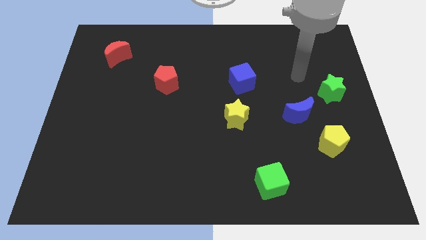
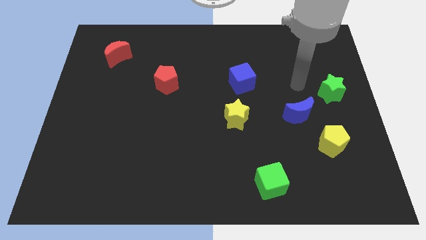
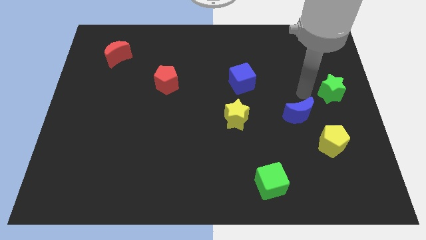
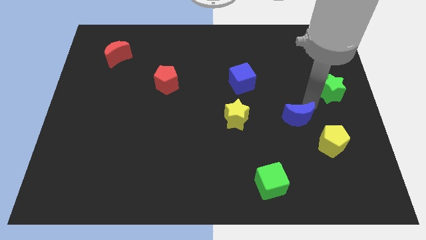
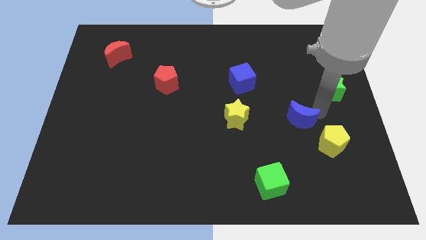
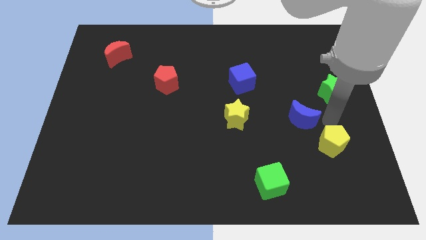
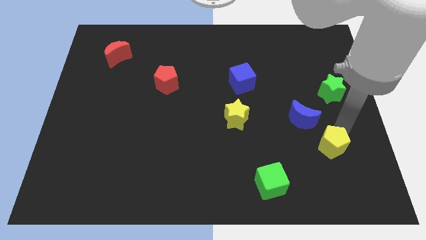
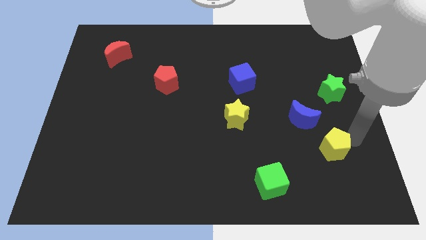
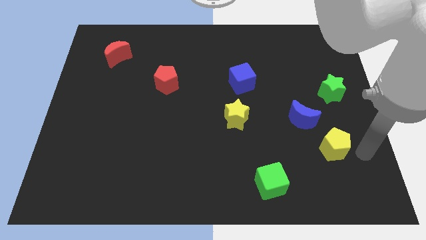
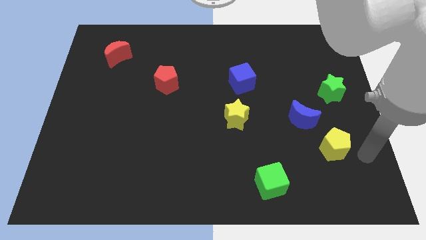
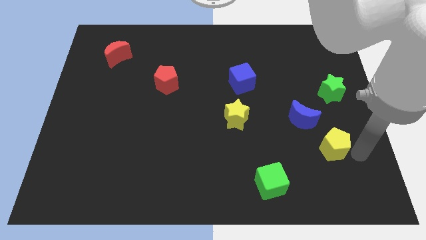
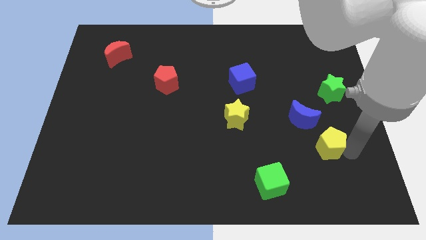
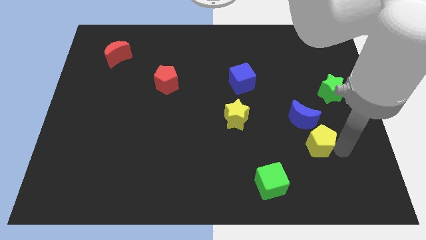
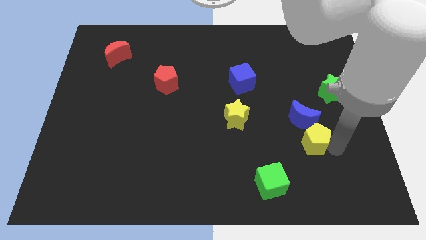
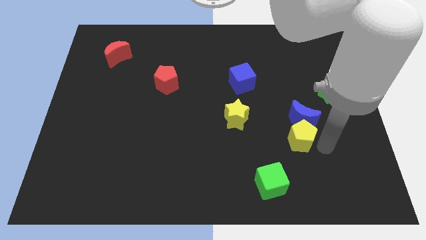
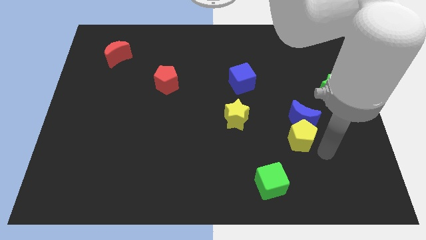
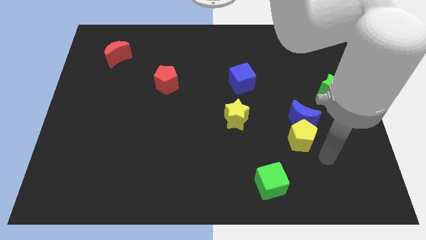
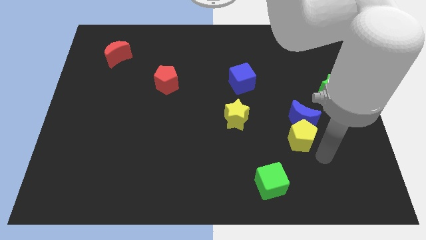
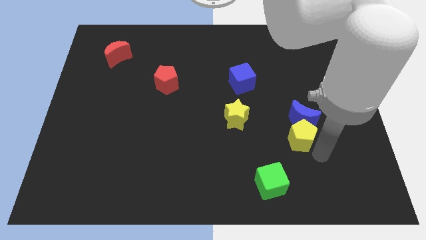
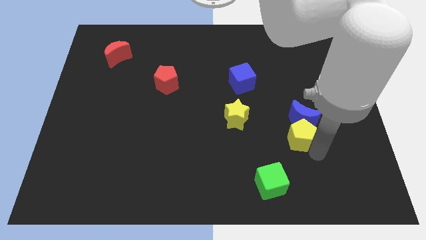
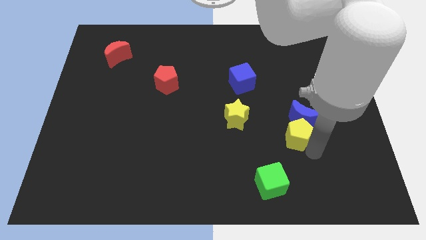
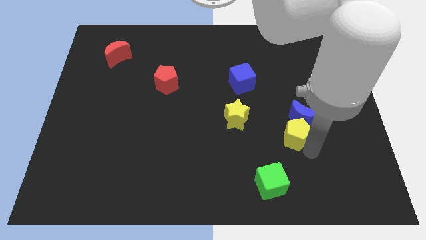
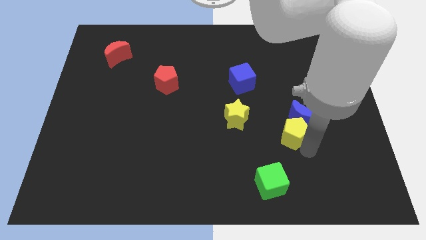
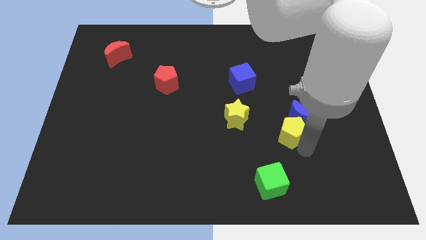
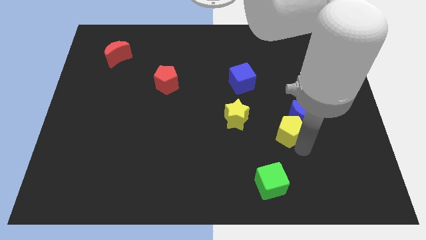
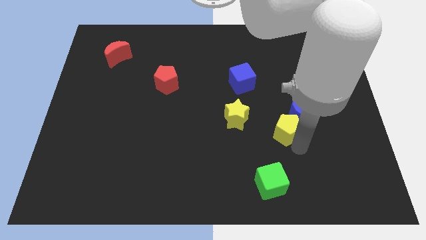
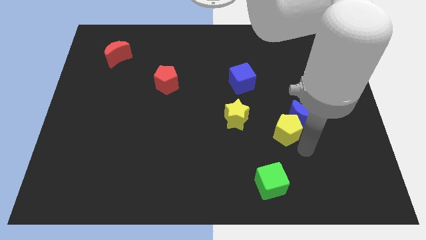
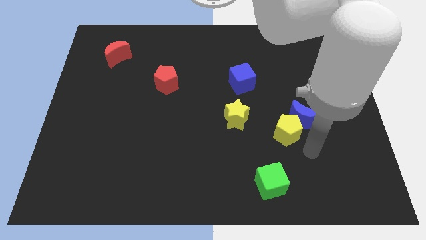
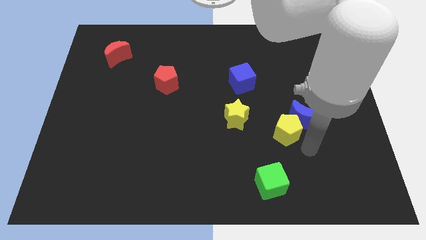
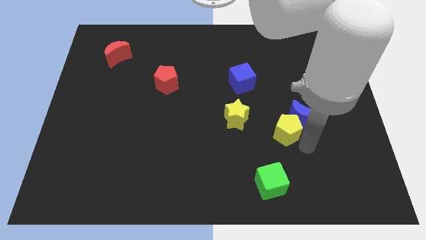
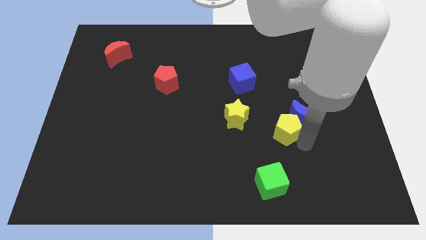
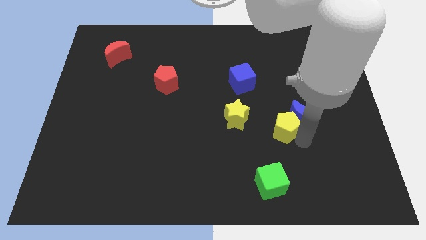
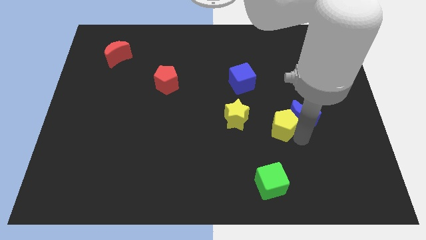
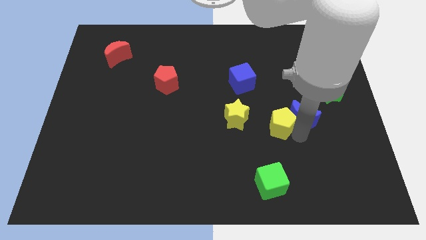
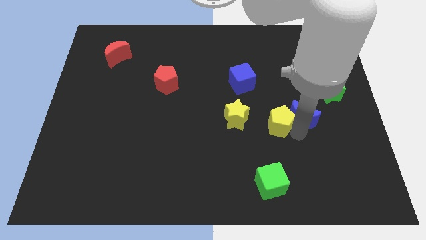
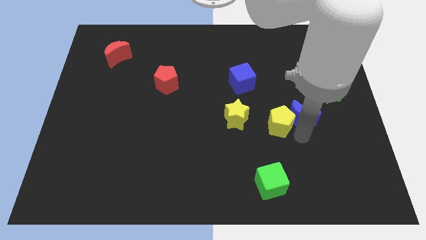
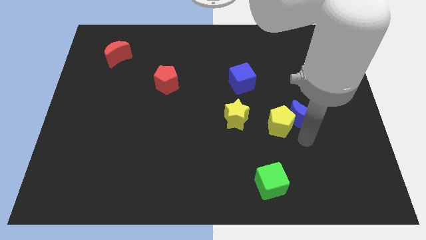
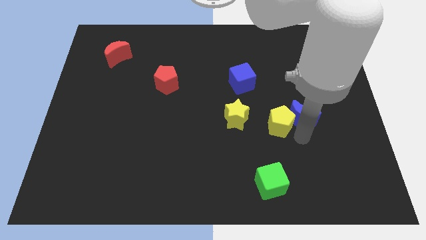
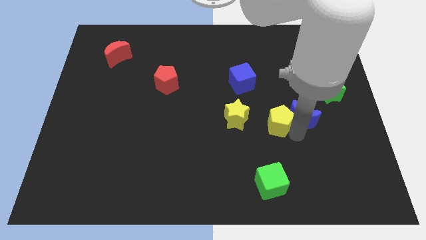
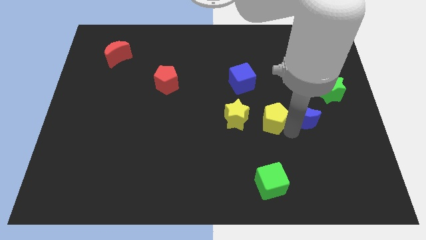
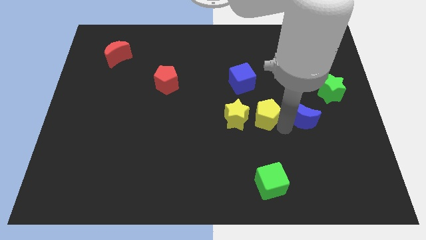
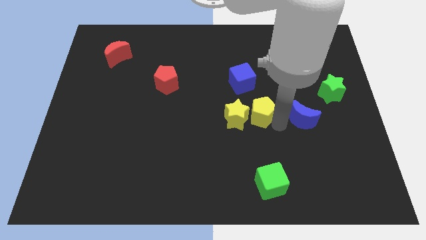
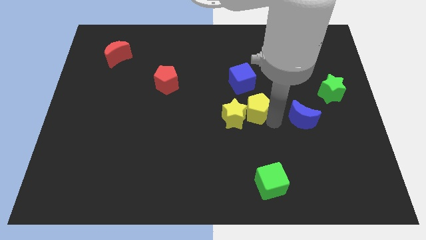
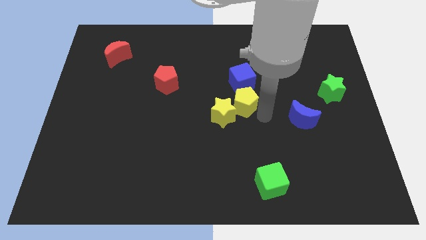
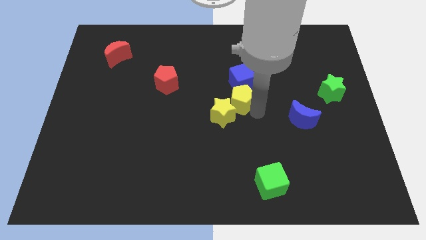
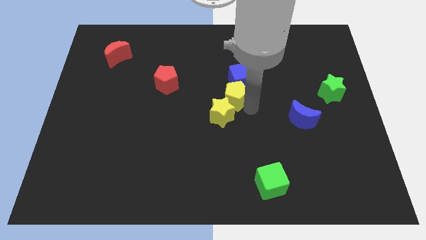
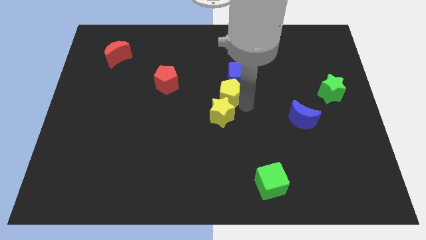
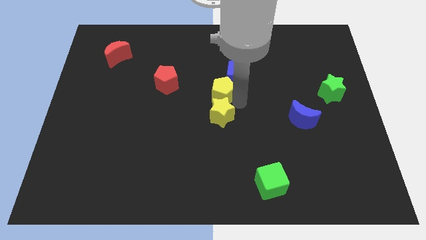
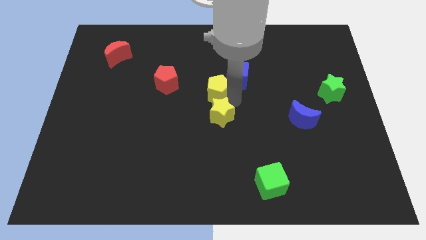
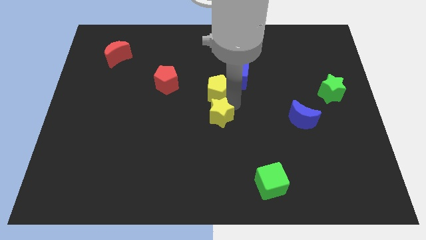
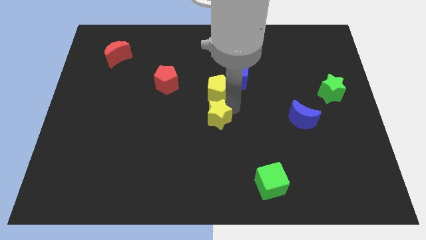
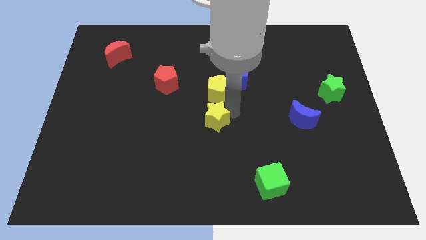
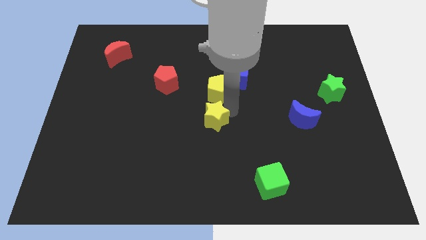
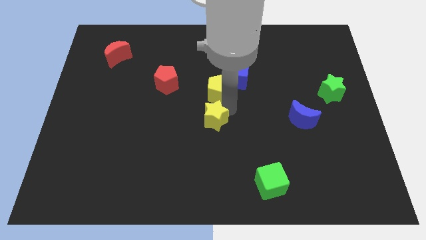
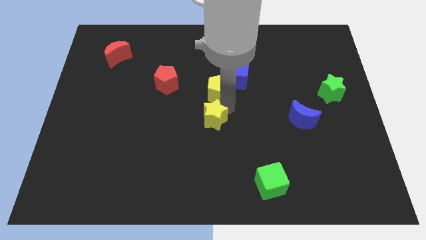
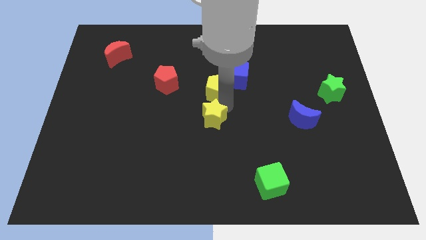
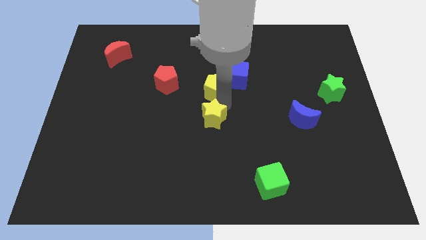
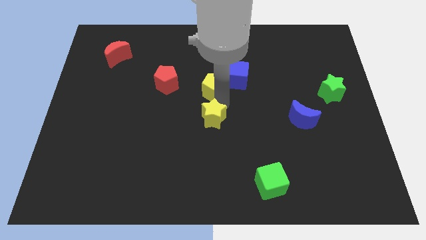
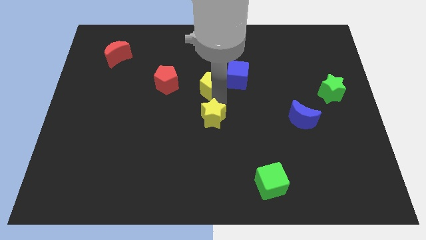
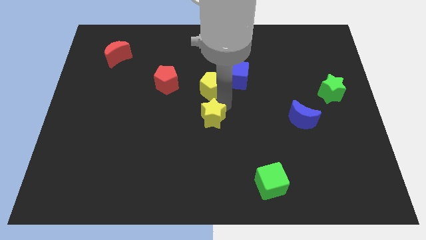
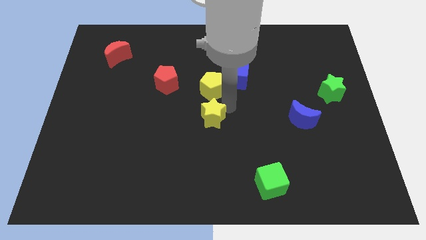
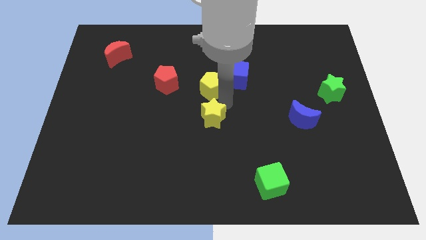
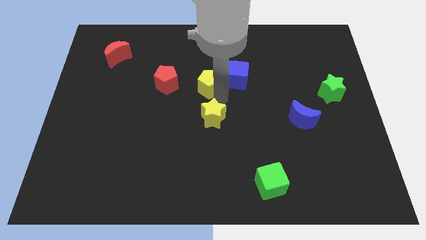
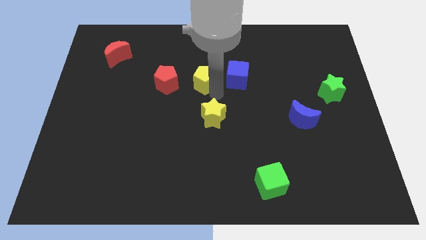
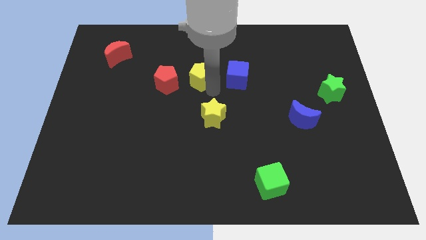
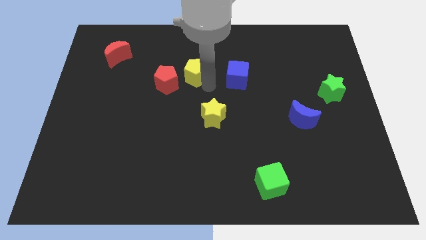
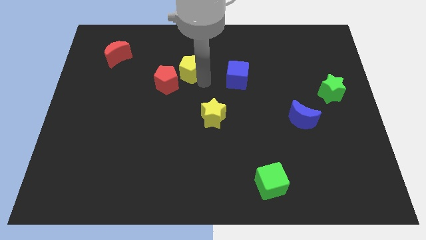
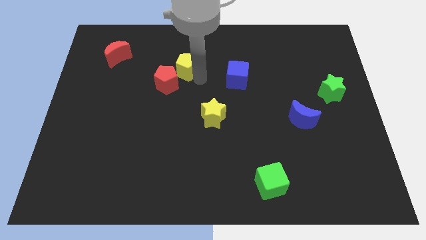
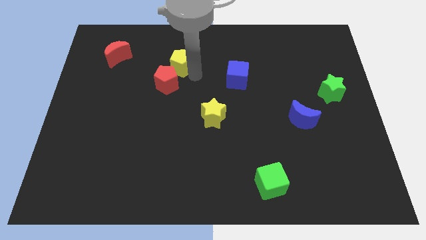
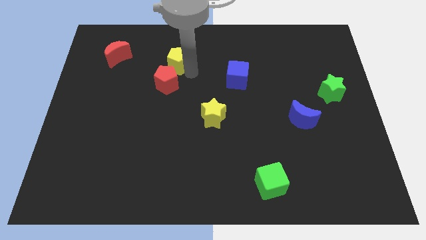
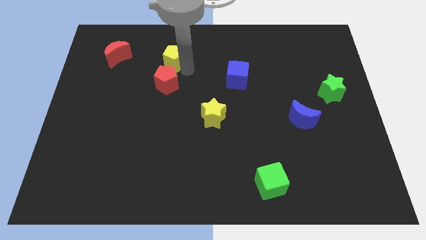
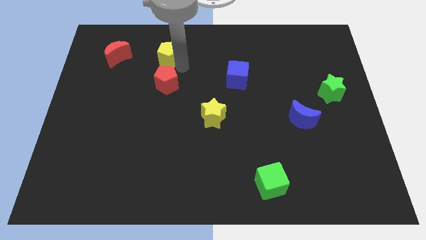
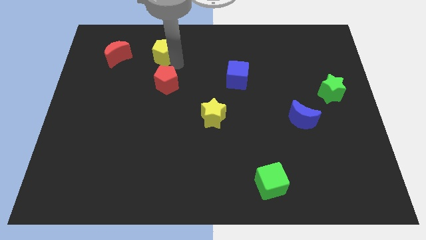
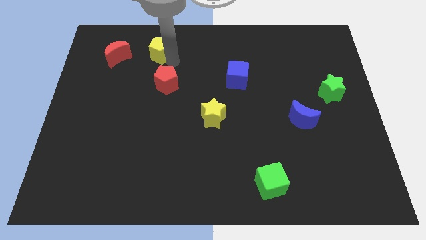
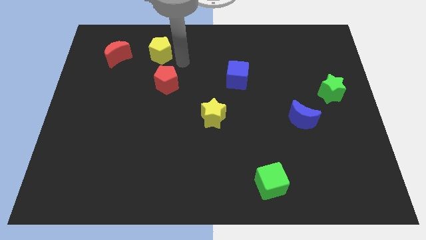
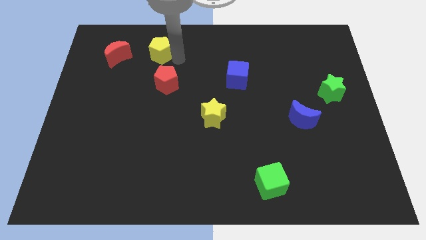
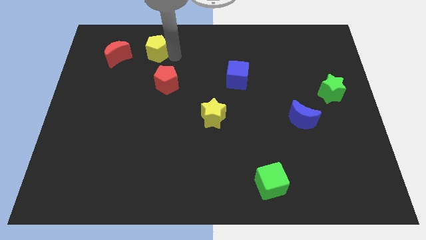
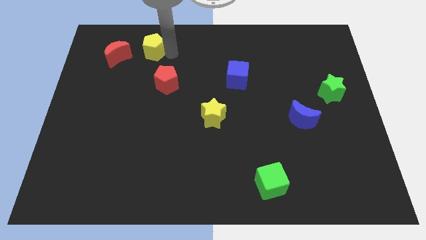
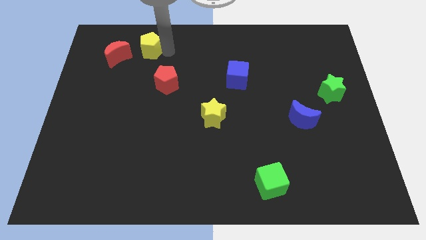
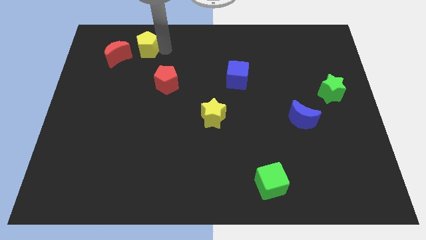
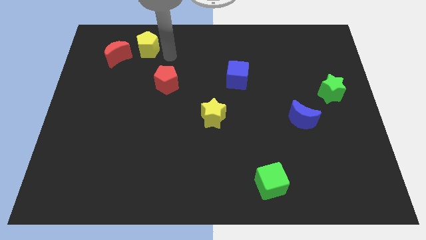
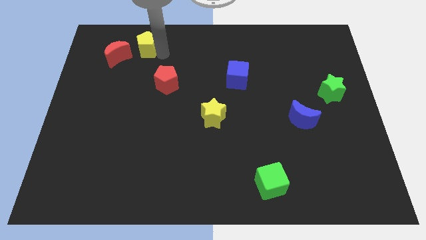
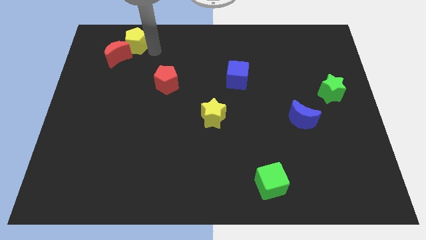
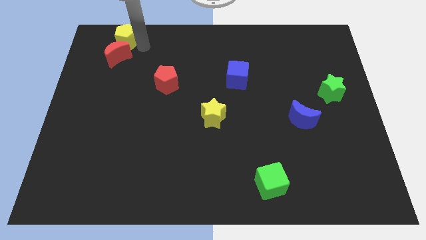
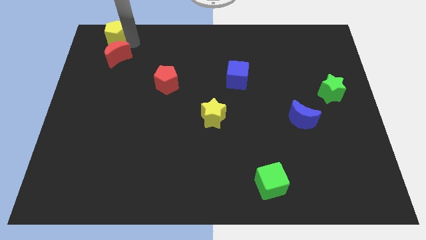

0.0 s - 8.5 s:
slide the yellow pentagon to the upper left corner
